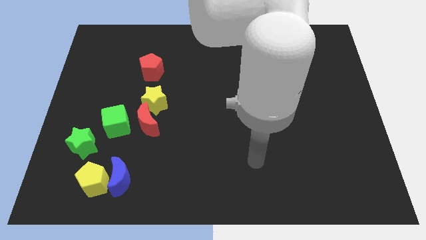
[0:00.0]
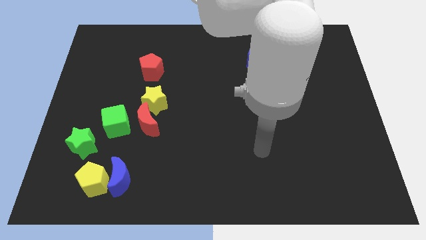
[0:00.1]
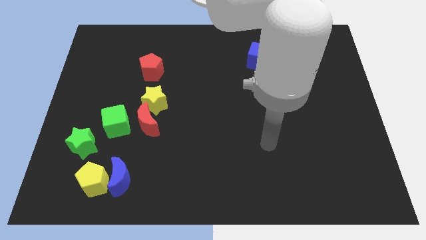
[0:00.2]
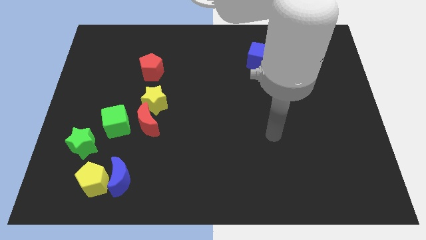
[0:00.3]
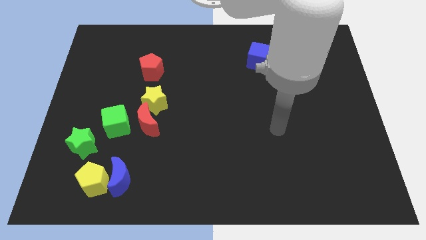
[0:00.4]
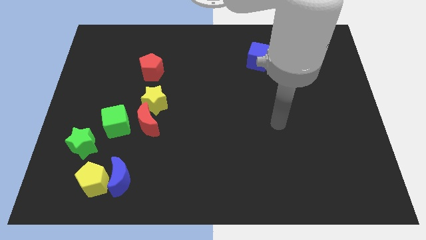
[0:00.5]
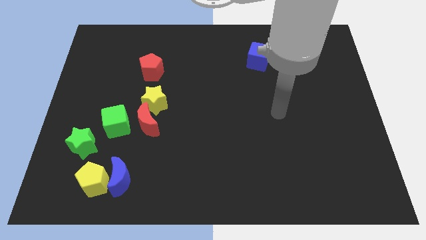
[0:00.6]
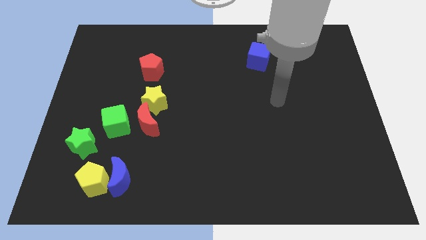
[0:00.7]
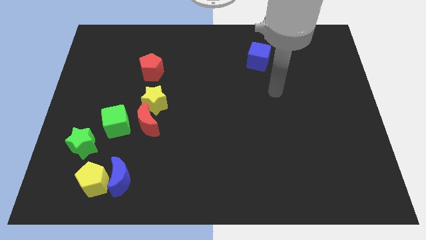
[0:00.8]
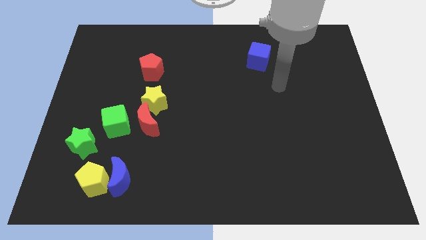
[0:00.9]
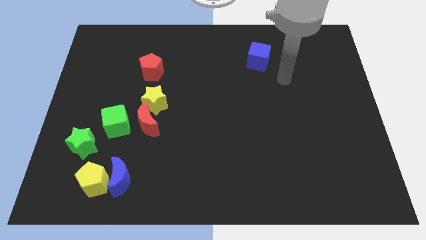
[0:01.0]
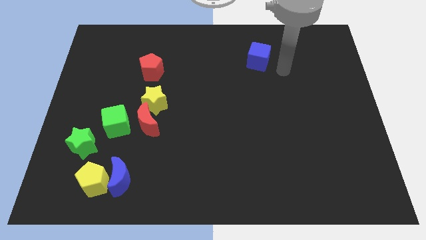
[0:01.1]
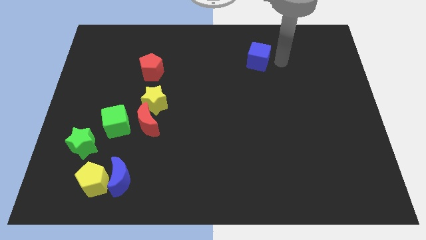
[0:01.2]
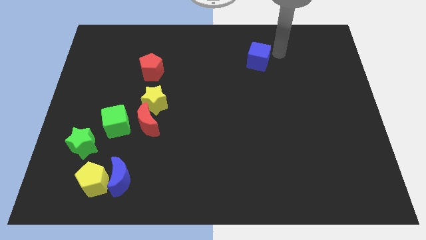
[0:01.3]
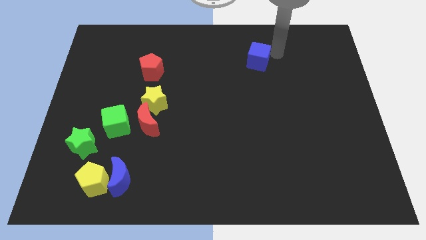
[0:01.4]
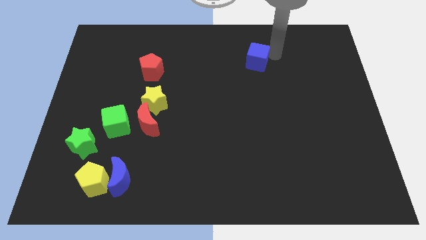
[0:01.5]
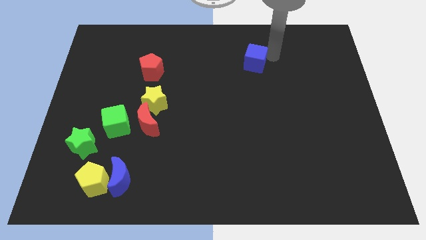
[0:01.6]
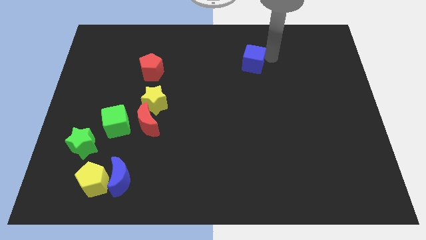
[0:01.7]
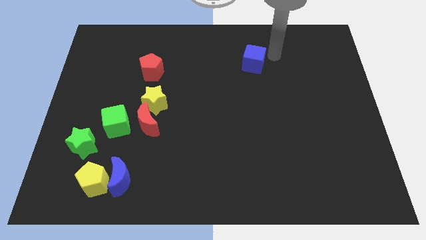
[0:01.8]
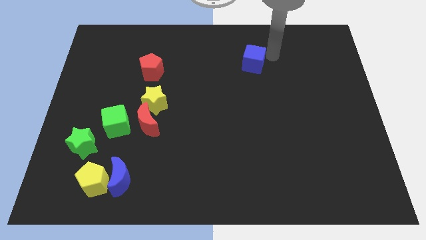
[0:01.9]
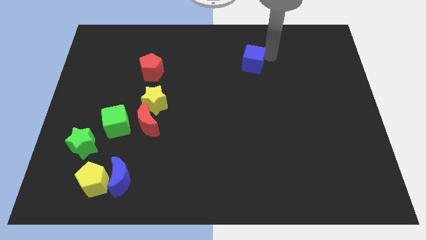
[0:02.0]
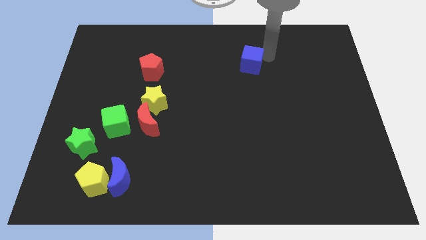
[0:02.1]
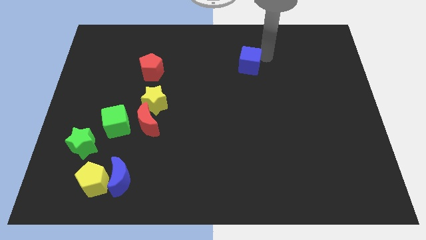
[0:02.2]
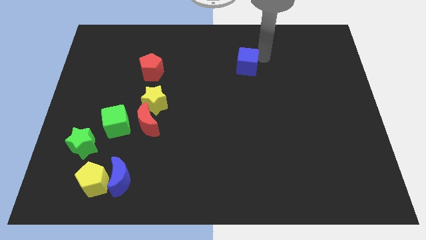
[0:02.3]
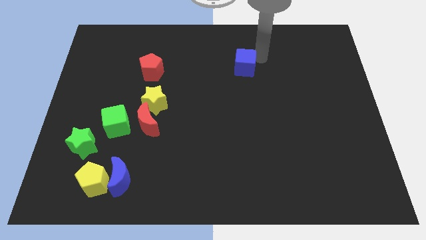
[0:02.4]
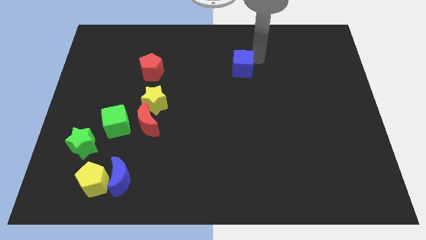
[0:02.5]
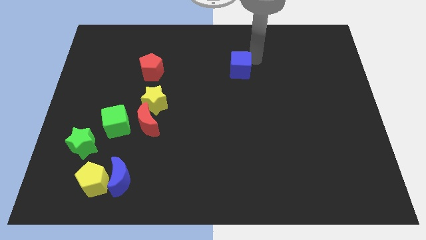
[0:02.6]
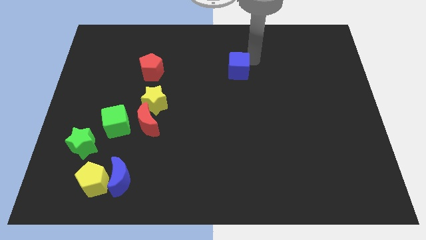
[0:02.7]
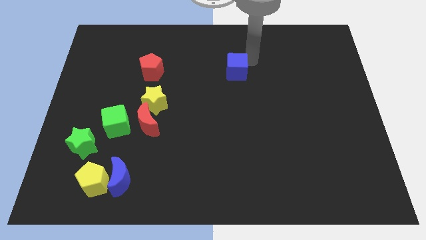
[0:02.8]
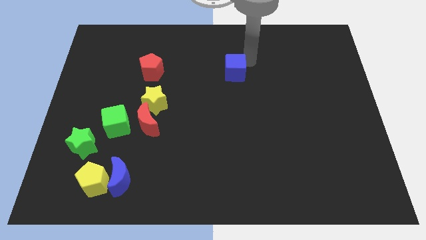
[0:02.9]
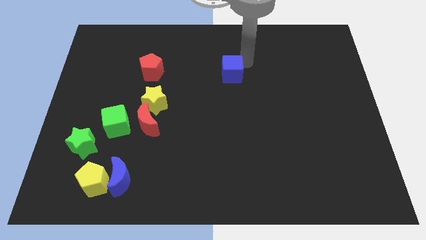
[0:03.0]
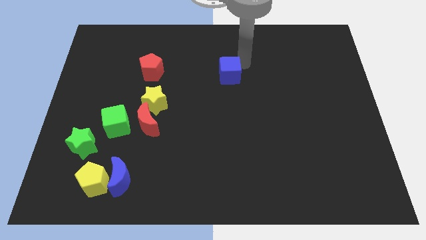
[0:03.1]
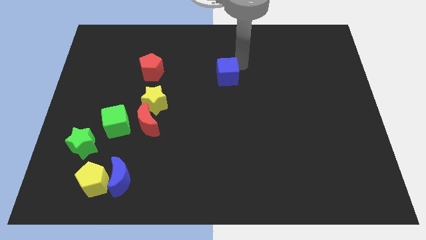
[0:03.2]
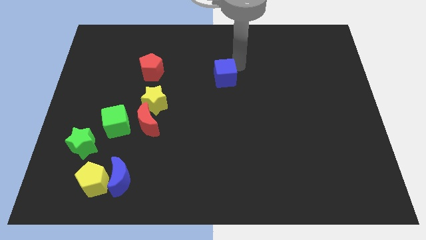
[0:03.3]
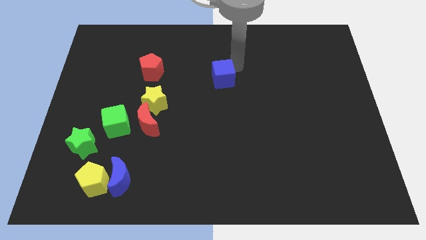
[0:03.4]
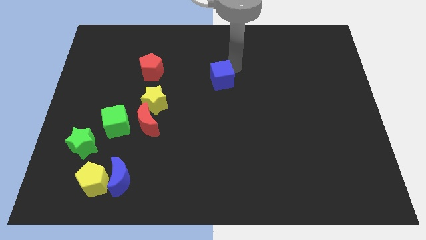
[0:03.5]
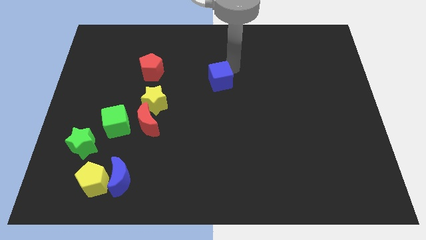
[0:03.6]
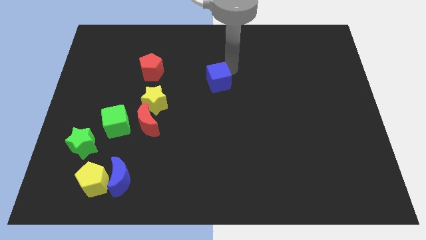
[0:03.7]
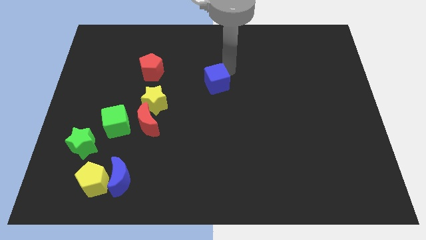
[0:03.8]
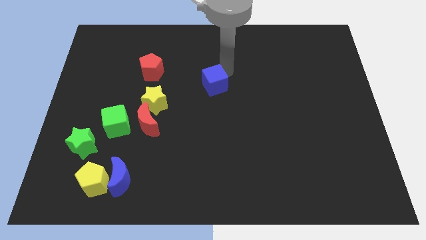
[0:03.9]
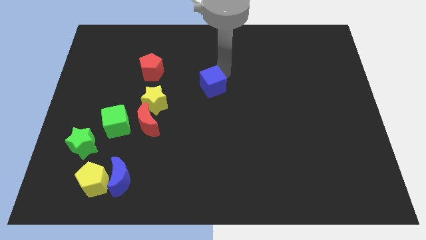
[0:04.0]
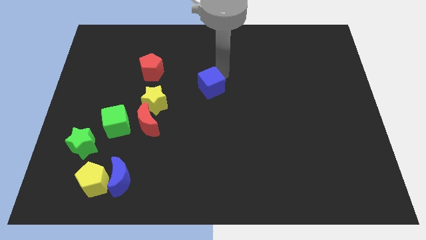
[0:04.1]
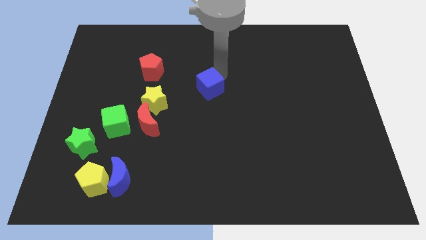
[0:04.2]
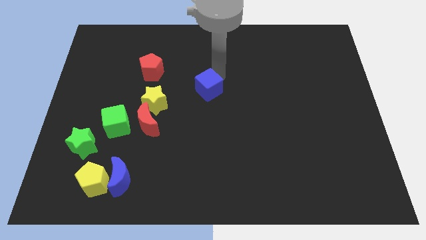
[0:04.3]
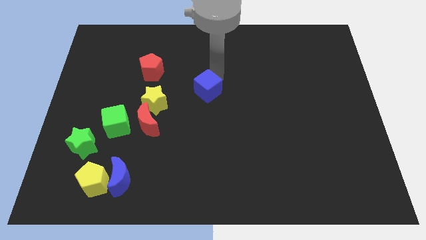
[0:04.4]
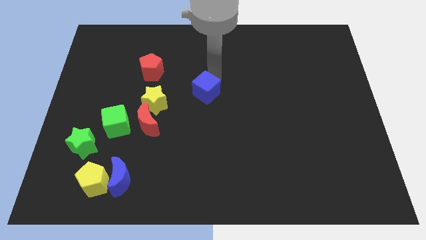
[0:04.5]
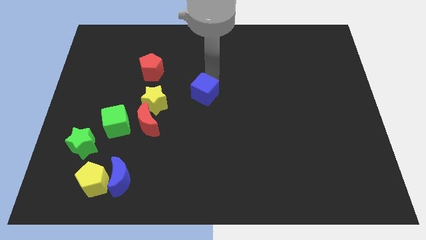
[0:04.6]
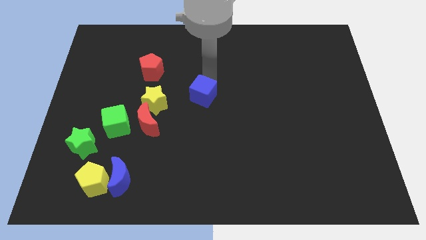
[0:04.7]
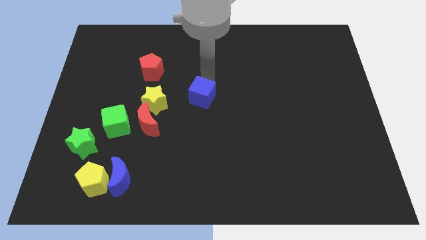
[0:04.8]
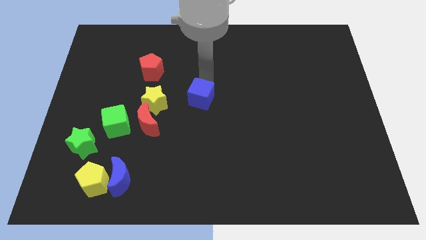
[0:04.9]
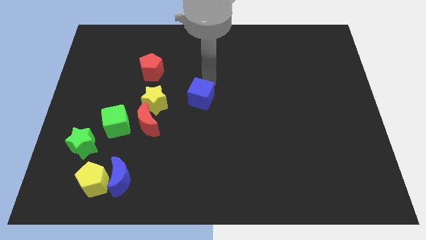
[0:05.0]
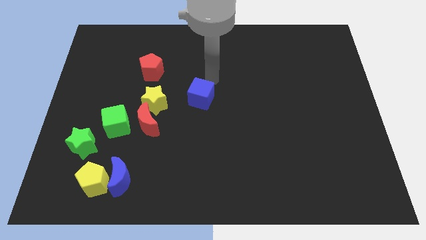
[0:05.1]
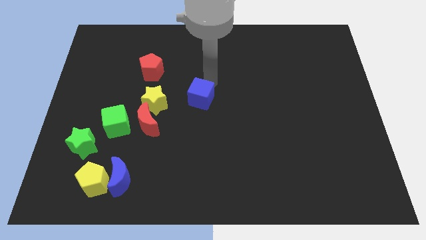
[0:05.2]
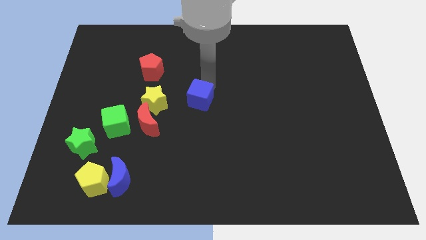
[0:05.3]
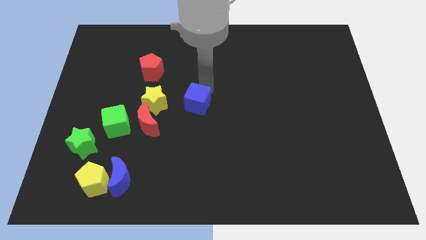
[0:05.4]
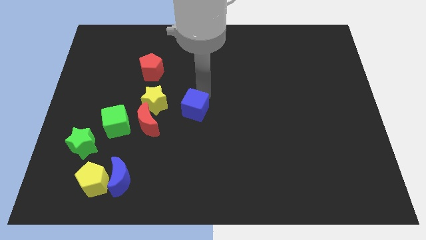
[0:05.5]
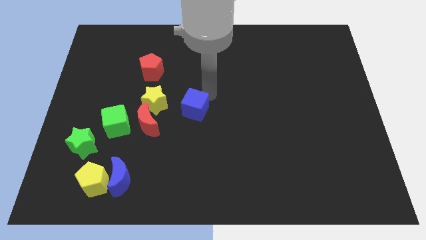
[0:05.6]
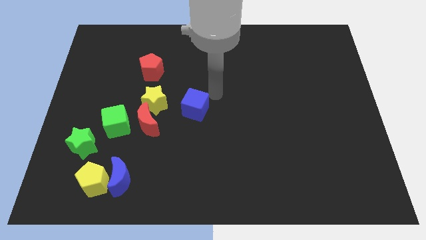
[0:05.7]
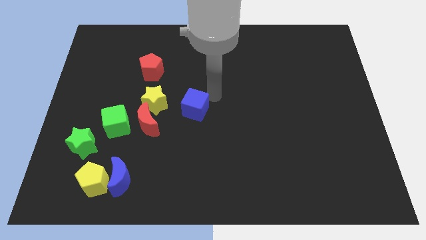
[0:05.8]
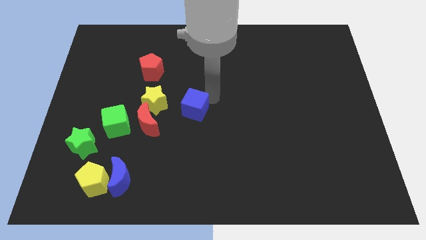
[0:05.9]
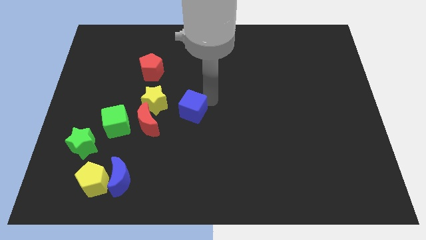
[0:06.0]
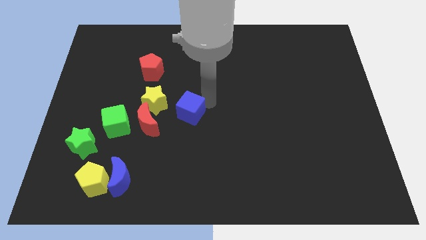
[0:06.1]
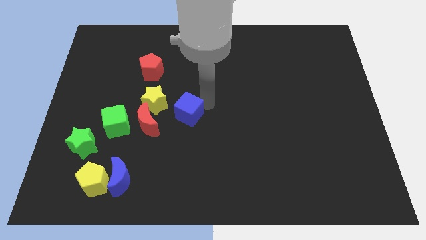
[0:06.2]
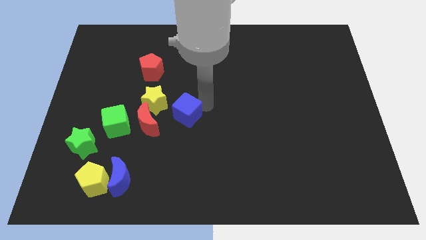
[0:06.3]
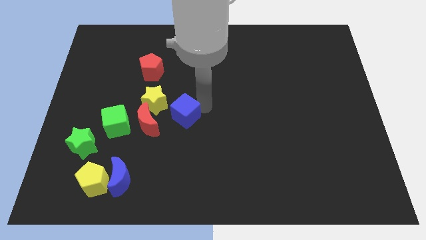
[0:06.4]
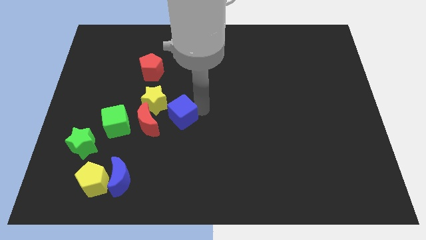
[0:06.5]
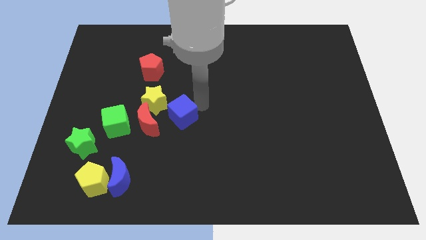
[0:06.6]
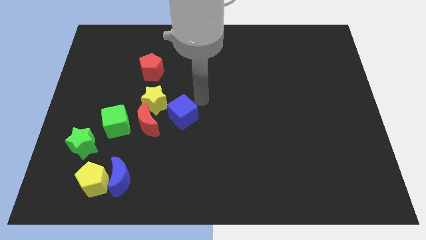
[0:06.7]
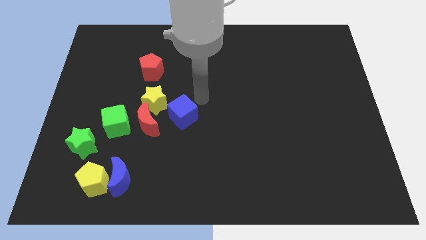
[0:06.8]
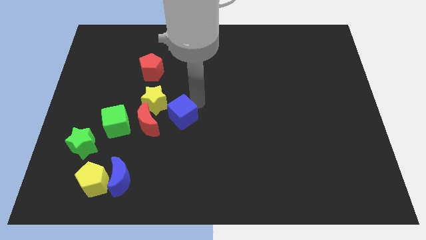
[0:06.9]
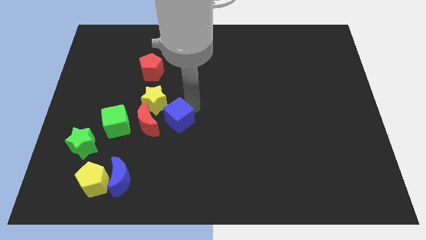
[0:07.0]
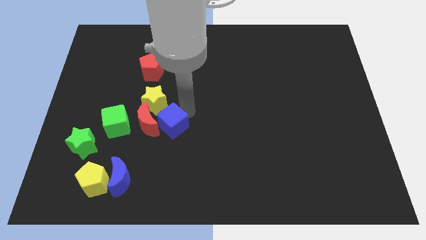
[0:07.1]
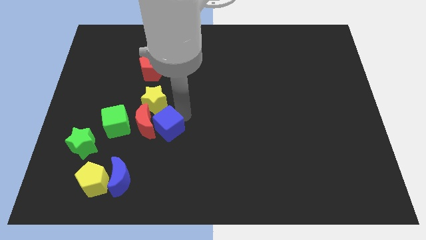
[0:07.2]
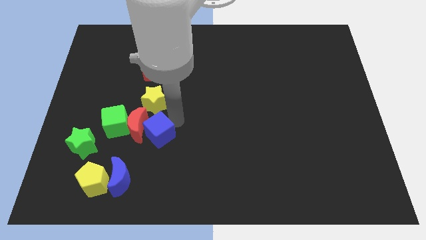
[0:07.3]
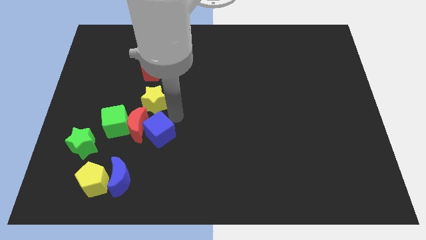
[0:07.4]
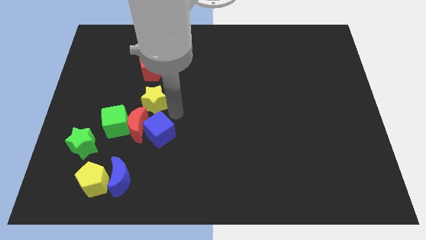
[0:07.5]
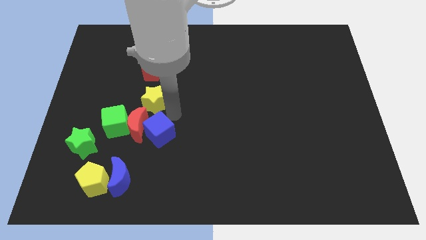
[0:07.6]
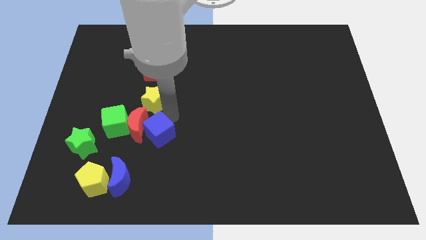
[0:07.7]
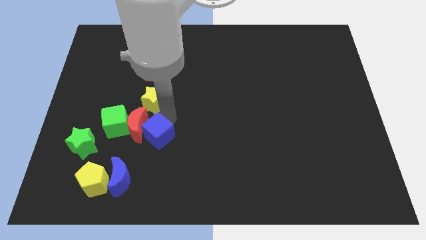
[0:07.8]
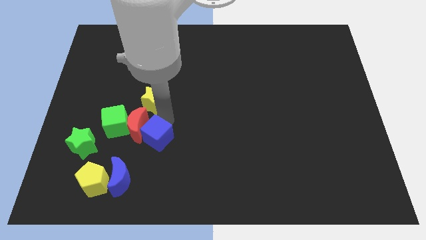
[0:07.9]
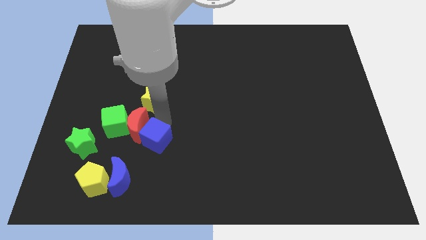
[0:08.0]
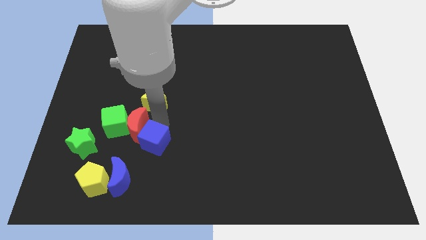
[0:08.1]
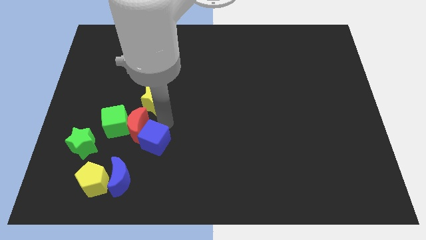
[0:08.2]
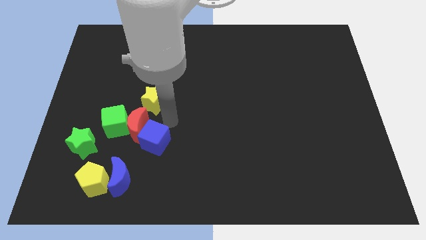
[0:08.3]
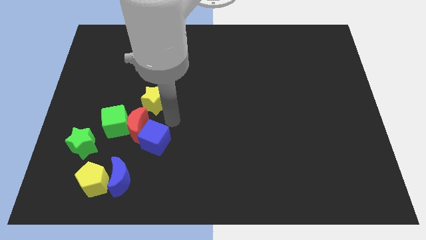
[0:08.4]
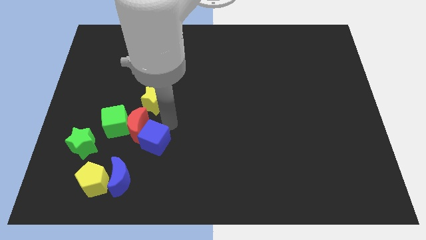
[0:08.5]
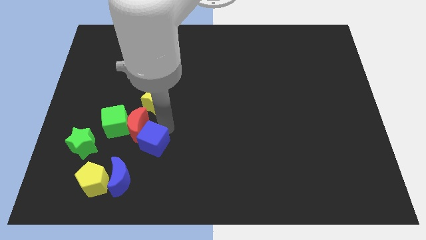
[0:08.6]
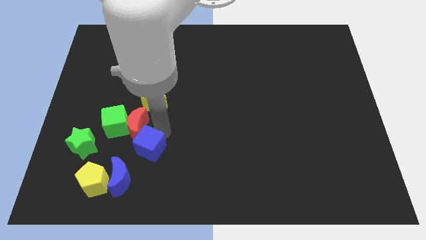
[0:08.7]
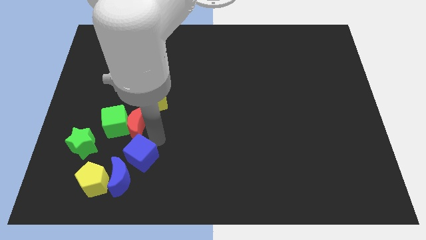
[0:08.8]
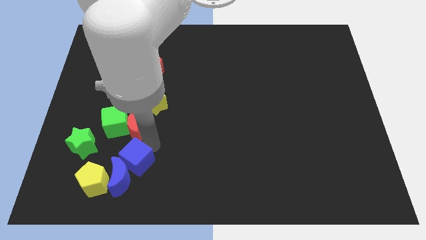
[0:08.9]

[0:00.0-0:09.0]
slide the blue cube close to the blue moon
